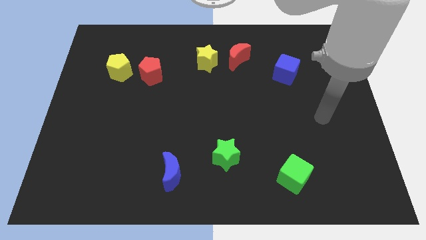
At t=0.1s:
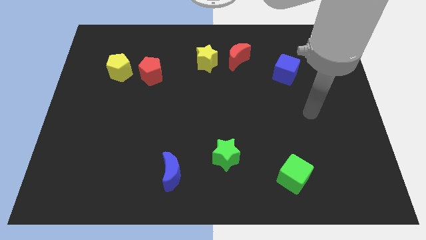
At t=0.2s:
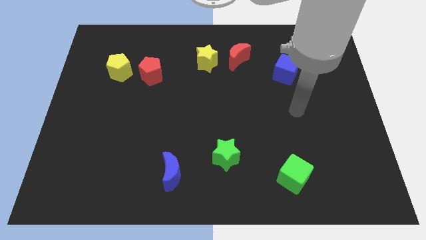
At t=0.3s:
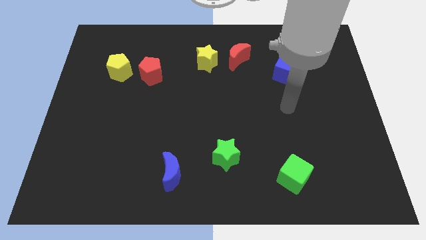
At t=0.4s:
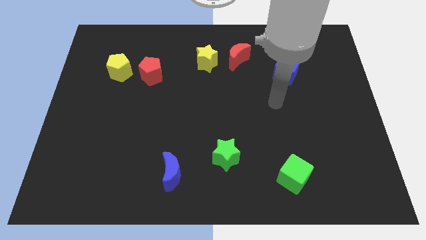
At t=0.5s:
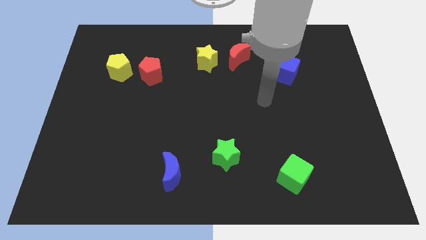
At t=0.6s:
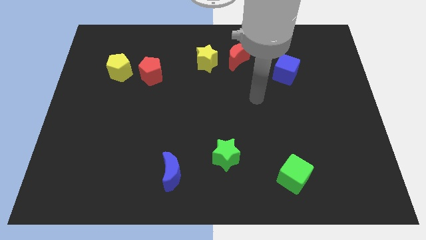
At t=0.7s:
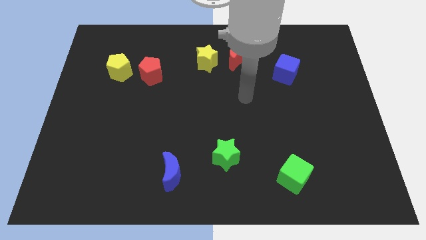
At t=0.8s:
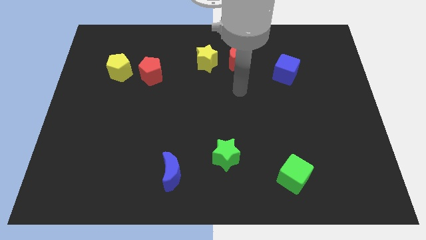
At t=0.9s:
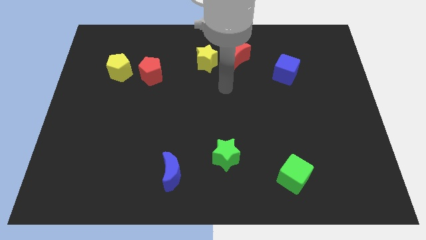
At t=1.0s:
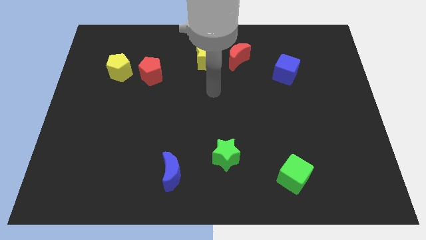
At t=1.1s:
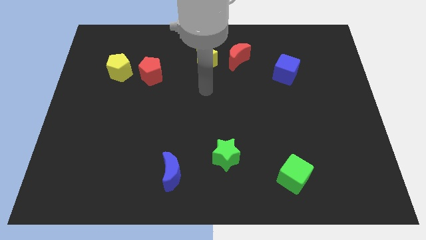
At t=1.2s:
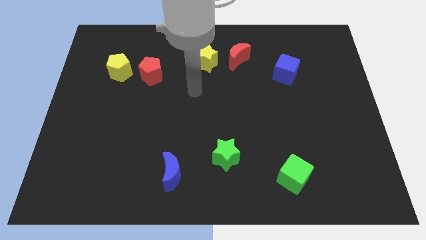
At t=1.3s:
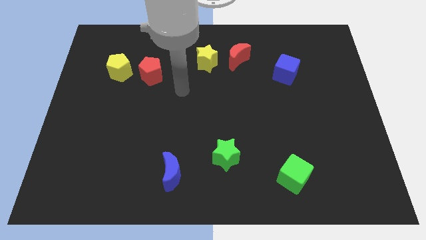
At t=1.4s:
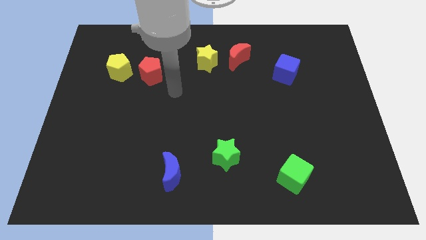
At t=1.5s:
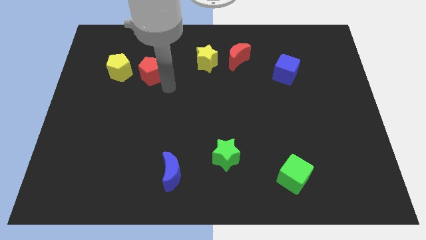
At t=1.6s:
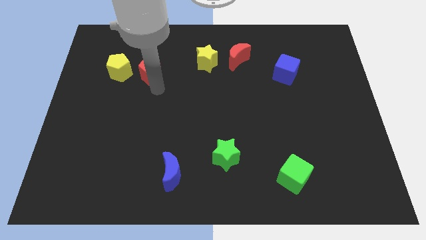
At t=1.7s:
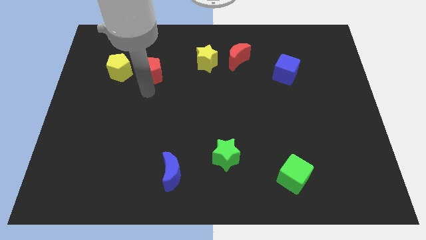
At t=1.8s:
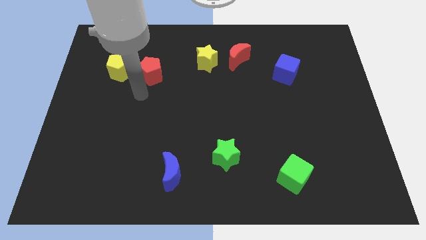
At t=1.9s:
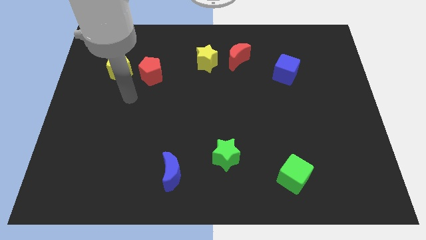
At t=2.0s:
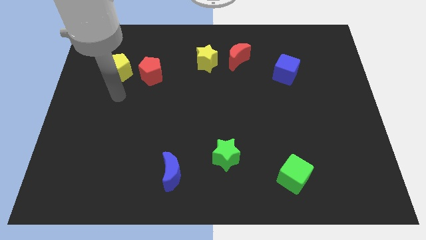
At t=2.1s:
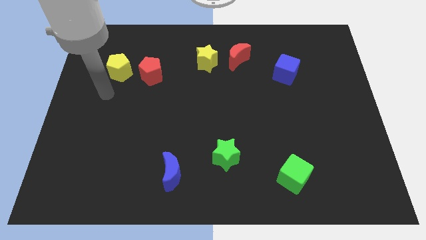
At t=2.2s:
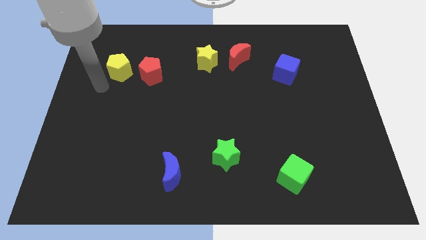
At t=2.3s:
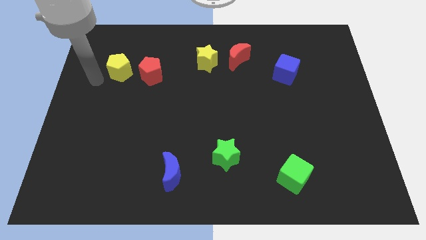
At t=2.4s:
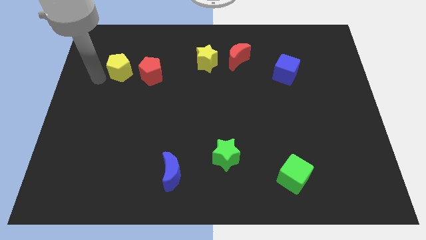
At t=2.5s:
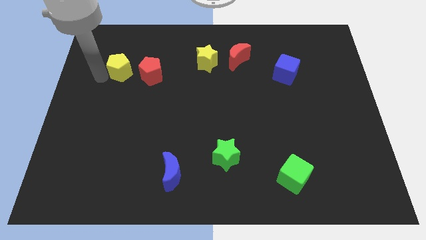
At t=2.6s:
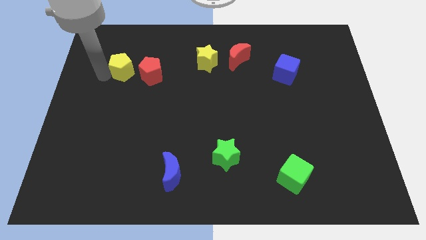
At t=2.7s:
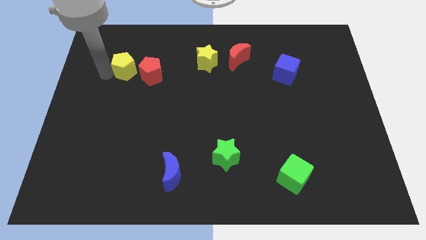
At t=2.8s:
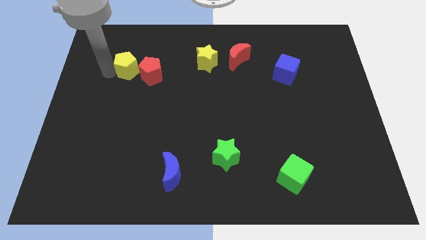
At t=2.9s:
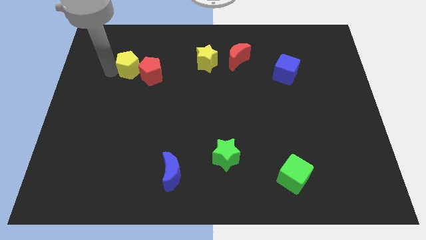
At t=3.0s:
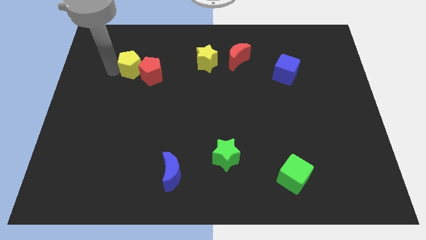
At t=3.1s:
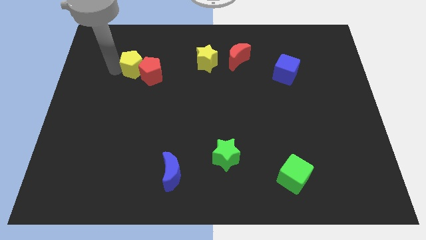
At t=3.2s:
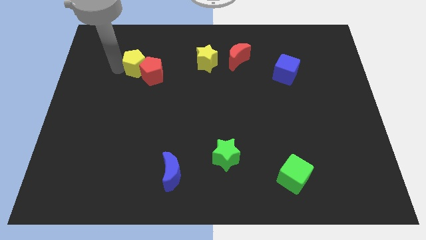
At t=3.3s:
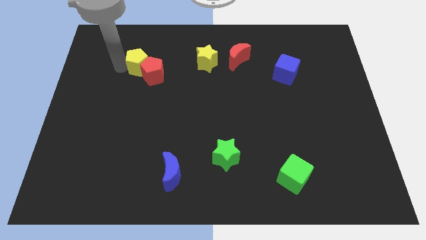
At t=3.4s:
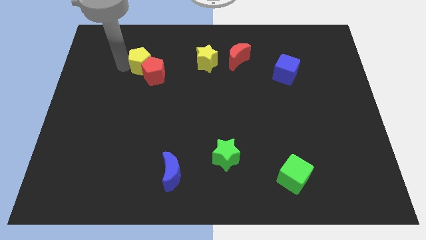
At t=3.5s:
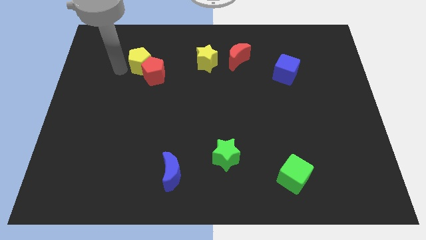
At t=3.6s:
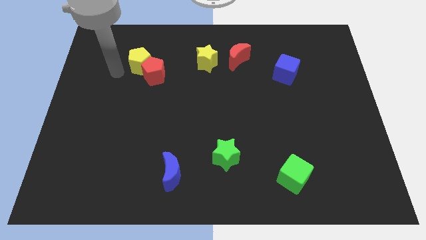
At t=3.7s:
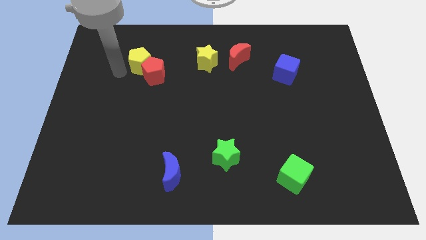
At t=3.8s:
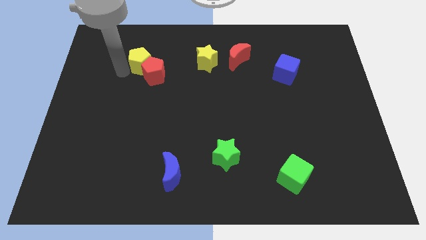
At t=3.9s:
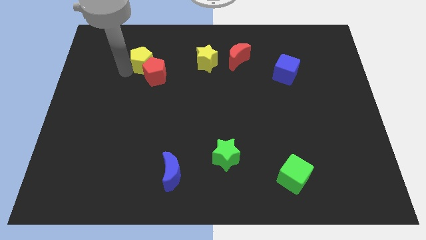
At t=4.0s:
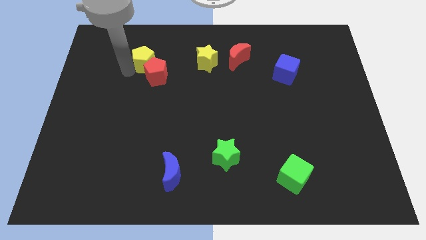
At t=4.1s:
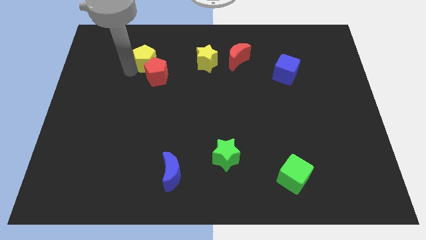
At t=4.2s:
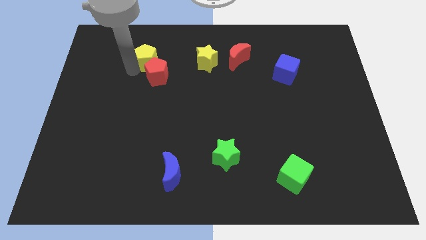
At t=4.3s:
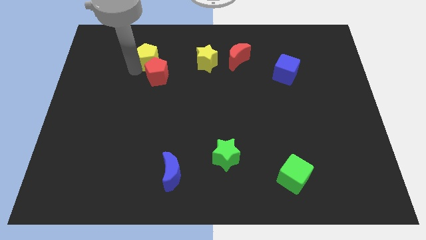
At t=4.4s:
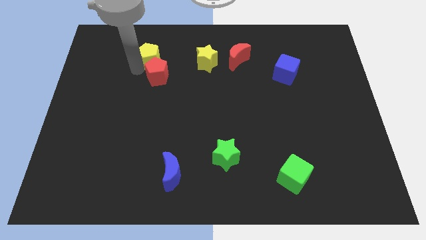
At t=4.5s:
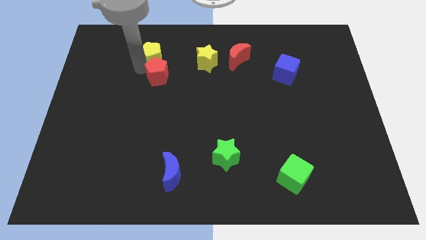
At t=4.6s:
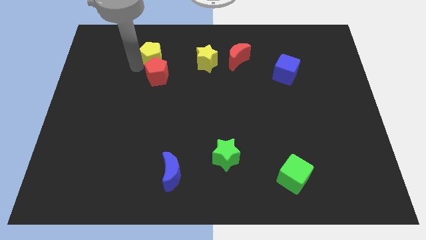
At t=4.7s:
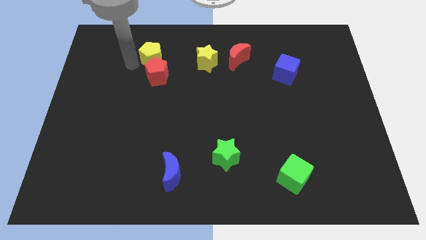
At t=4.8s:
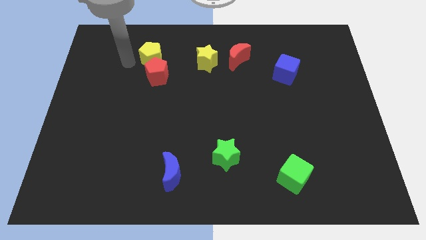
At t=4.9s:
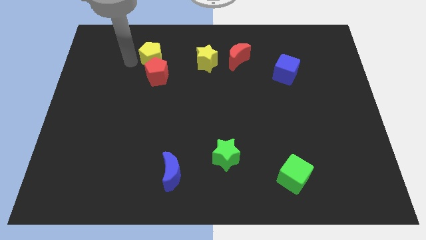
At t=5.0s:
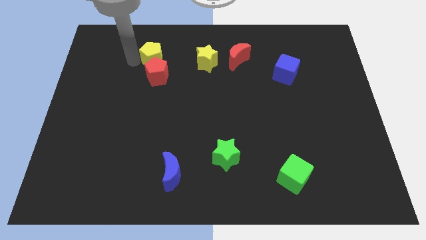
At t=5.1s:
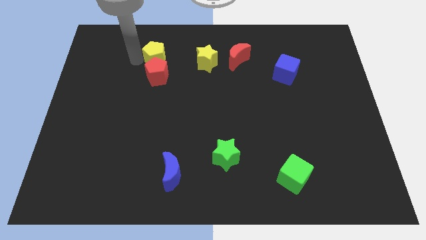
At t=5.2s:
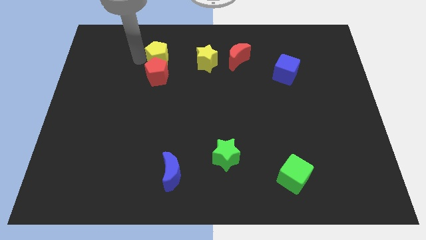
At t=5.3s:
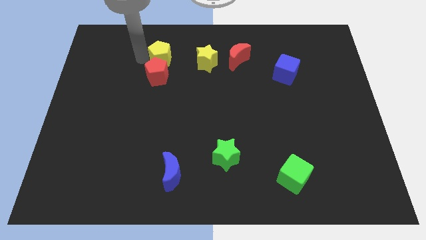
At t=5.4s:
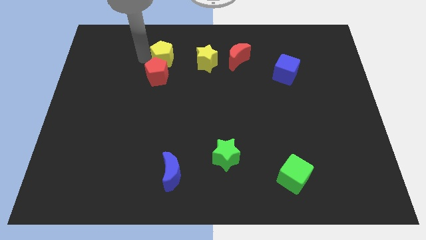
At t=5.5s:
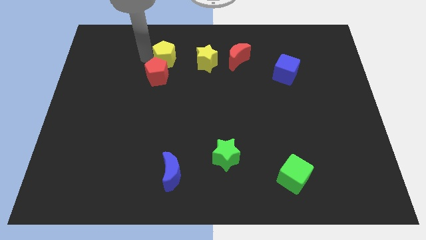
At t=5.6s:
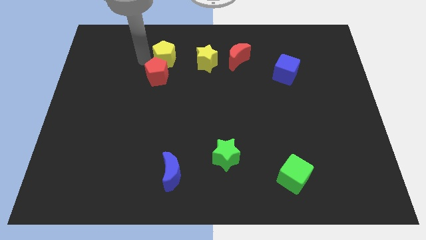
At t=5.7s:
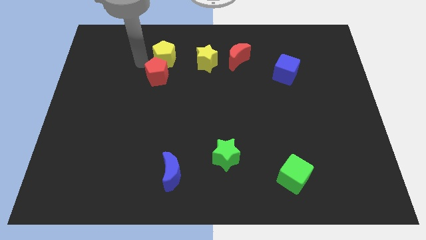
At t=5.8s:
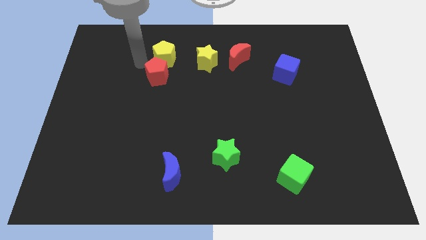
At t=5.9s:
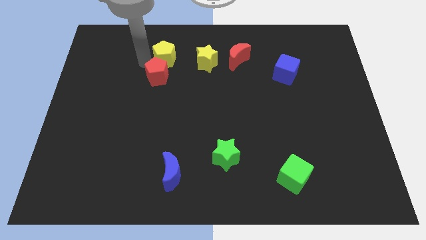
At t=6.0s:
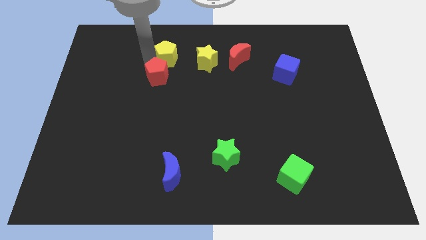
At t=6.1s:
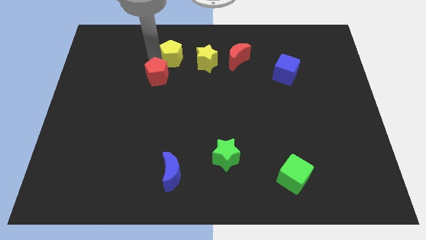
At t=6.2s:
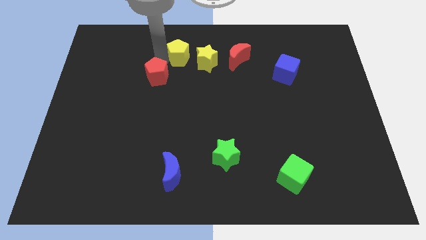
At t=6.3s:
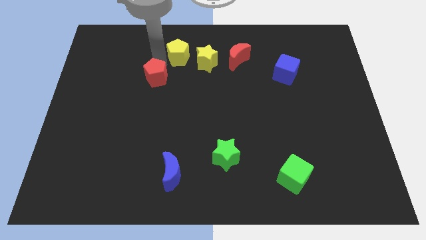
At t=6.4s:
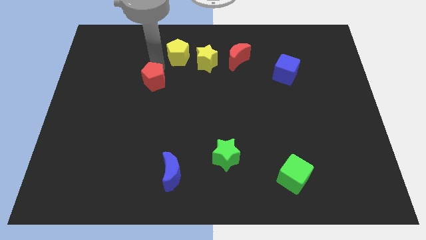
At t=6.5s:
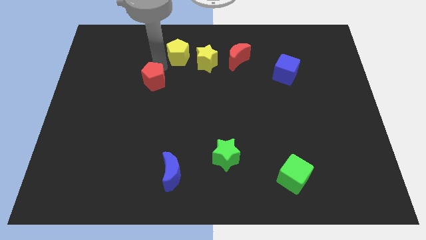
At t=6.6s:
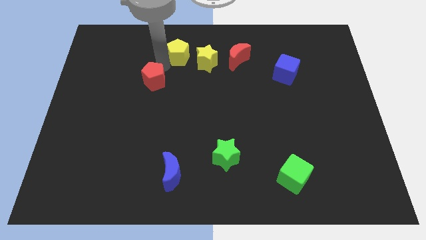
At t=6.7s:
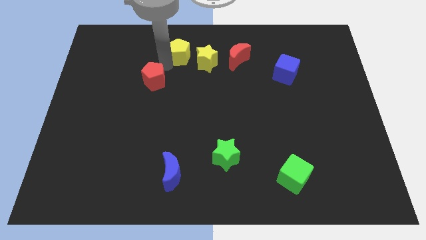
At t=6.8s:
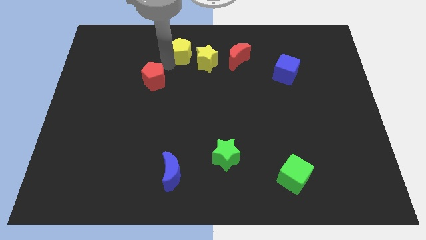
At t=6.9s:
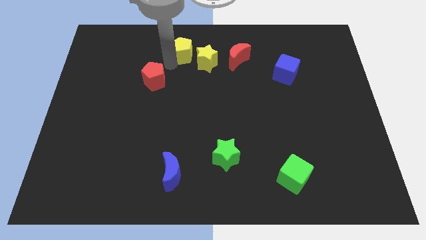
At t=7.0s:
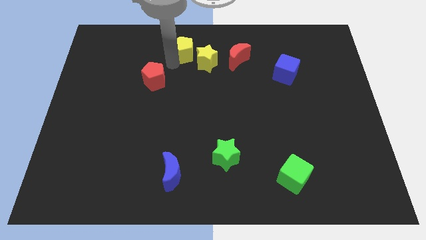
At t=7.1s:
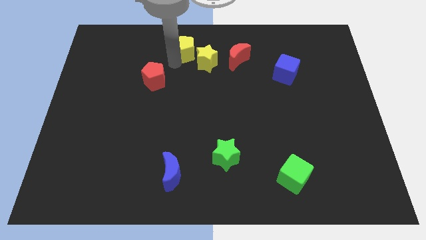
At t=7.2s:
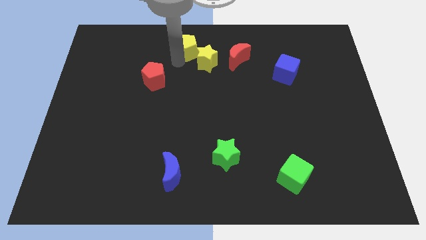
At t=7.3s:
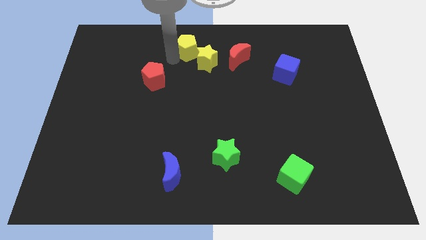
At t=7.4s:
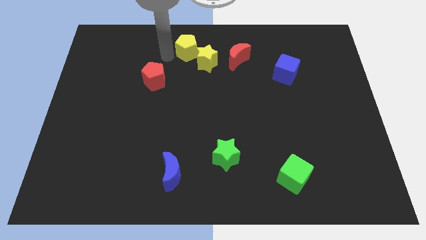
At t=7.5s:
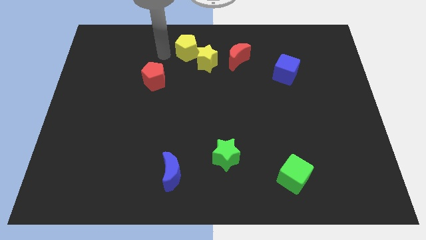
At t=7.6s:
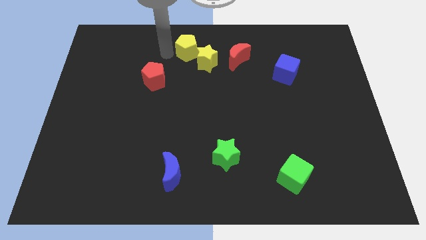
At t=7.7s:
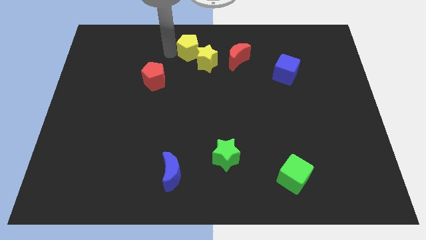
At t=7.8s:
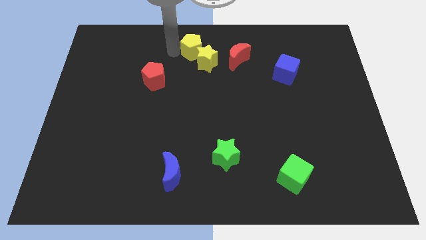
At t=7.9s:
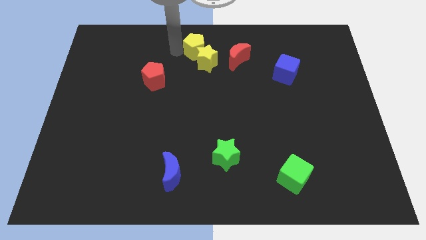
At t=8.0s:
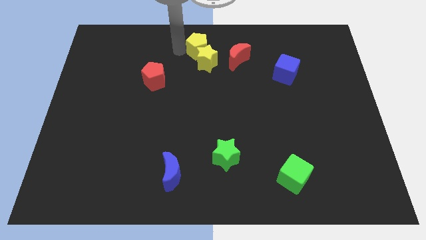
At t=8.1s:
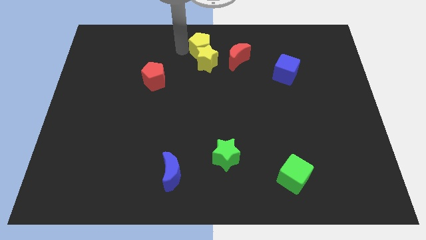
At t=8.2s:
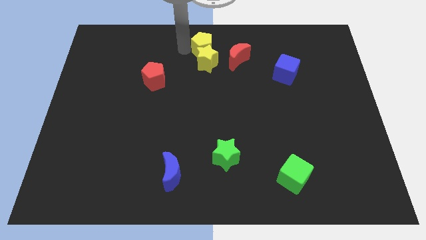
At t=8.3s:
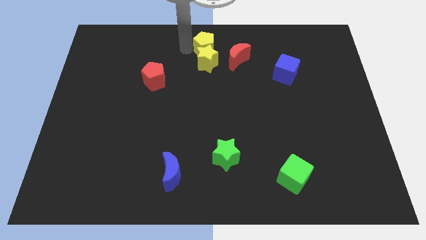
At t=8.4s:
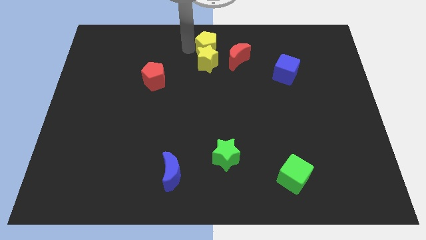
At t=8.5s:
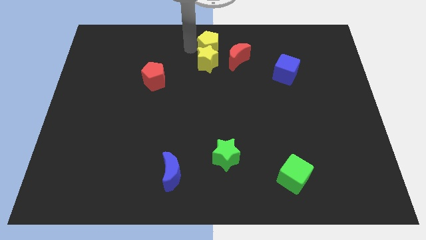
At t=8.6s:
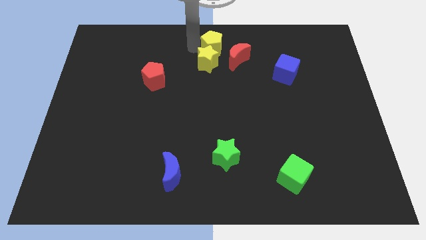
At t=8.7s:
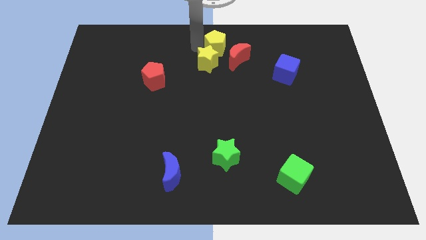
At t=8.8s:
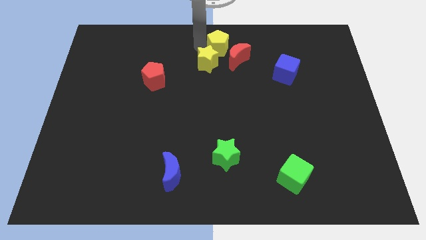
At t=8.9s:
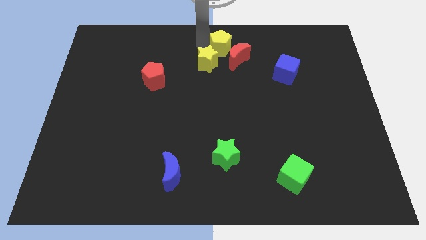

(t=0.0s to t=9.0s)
push the yellow pentagon to the red moon
